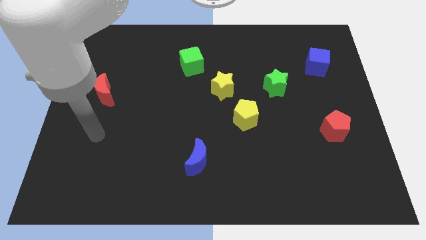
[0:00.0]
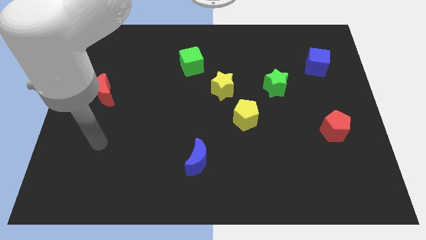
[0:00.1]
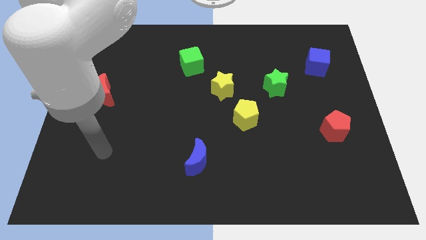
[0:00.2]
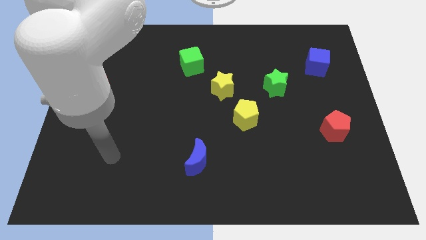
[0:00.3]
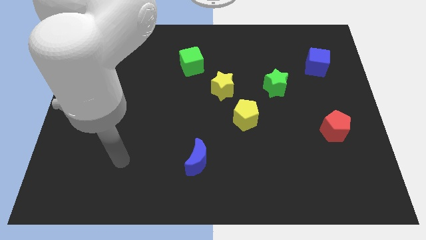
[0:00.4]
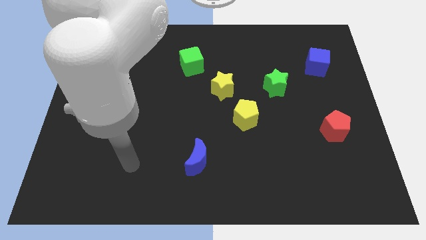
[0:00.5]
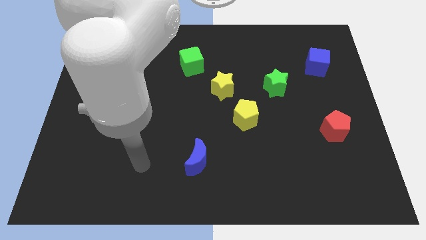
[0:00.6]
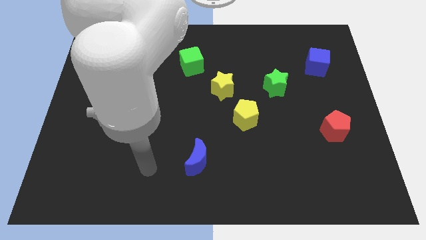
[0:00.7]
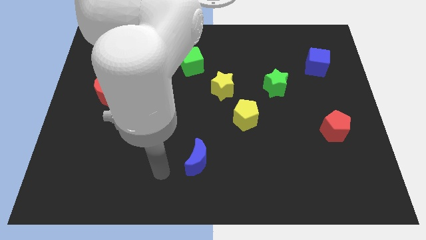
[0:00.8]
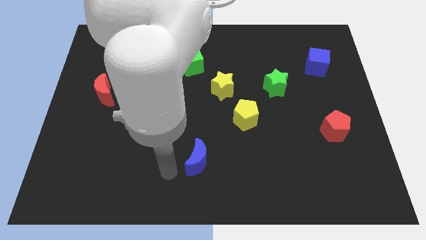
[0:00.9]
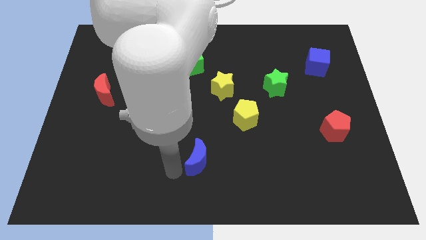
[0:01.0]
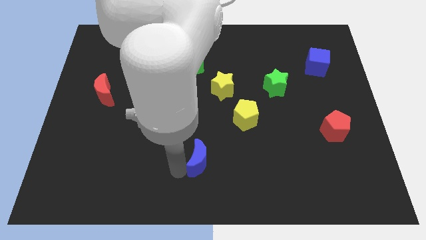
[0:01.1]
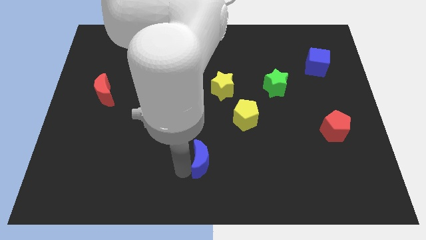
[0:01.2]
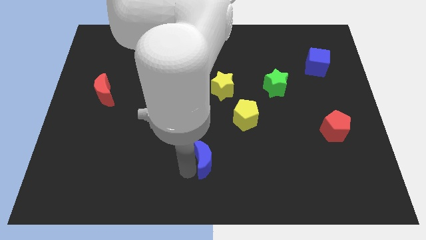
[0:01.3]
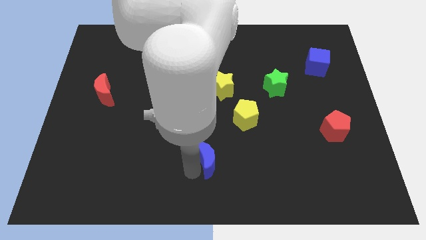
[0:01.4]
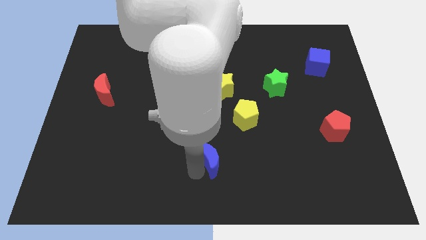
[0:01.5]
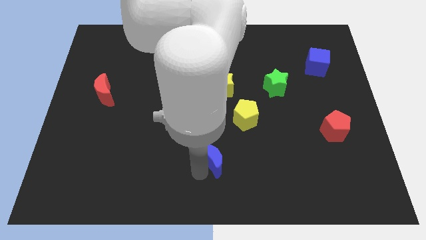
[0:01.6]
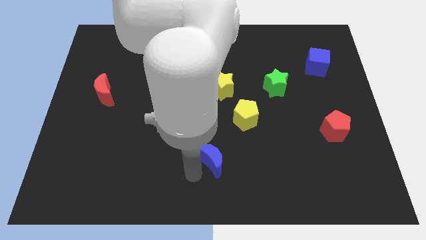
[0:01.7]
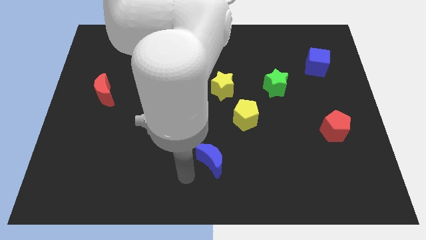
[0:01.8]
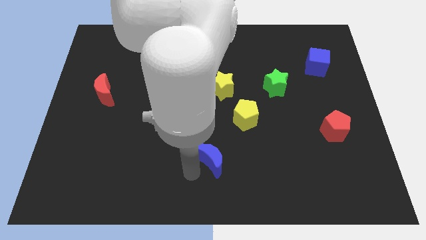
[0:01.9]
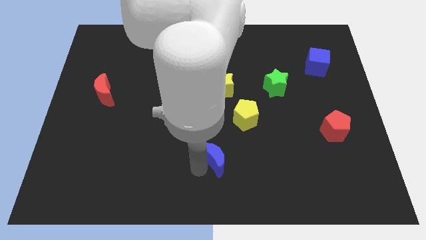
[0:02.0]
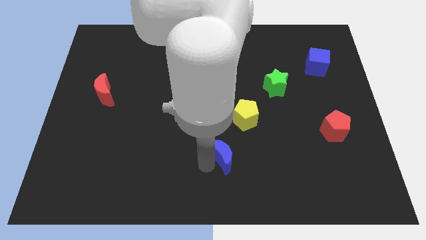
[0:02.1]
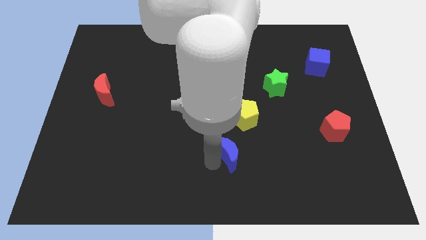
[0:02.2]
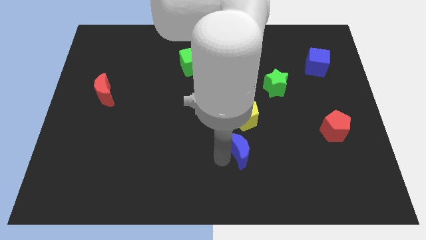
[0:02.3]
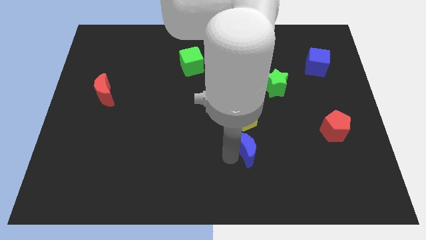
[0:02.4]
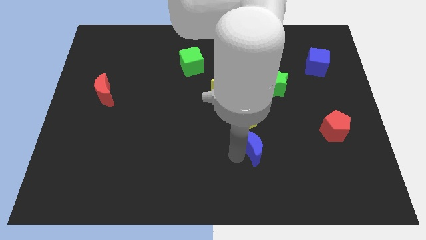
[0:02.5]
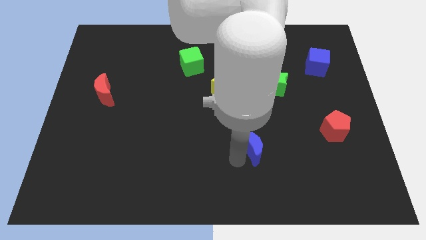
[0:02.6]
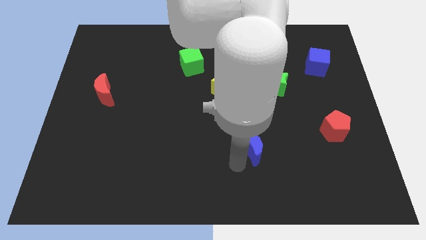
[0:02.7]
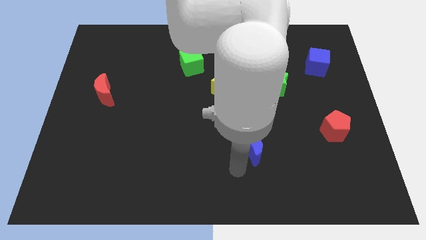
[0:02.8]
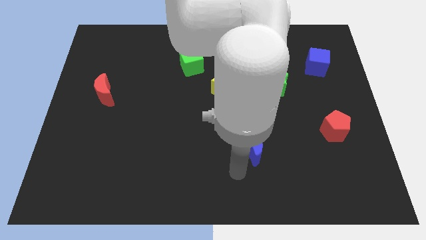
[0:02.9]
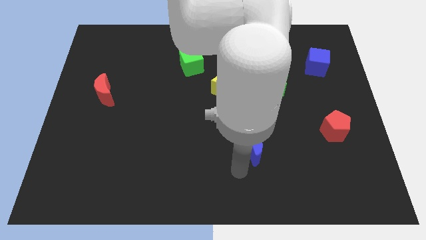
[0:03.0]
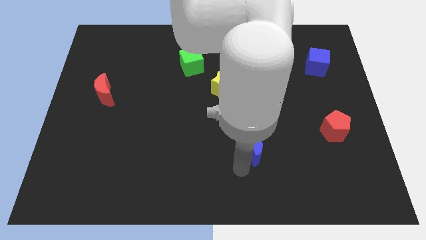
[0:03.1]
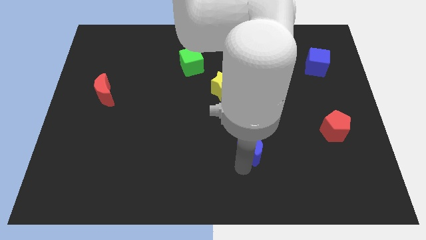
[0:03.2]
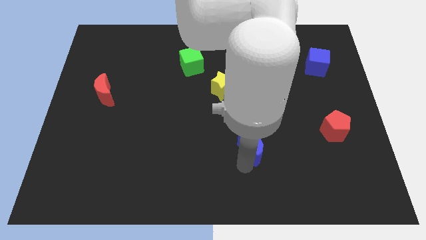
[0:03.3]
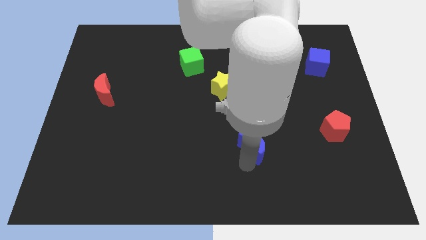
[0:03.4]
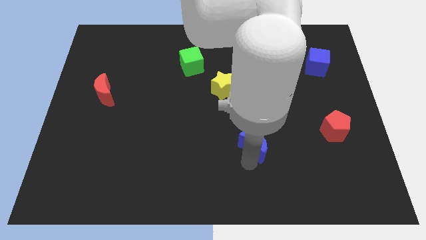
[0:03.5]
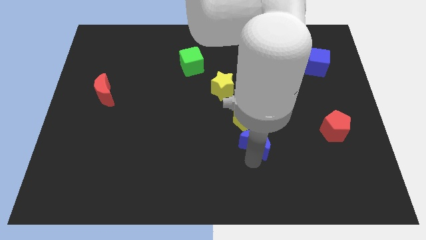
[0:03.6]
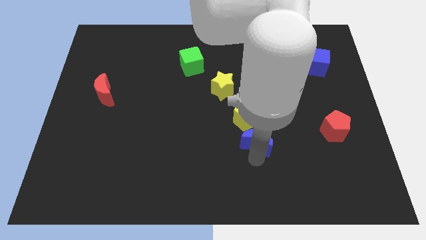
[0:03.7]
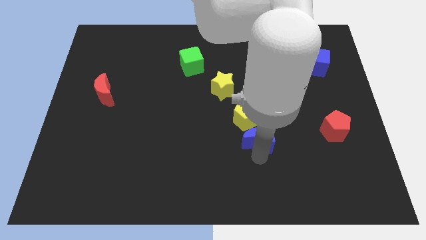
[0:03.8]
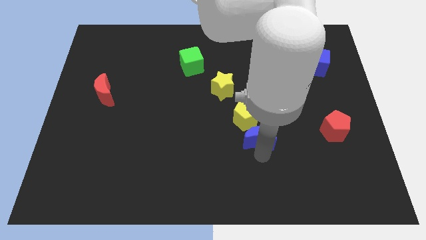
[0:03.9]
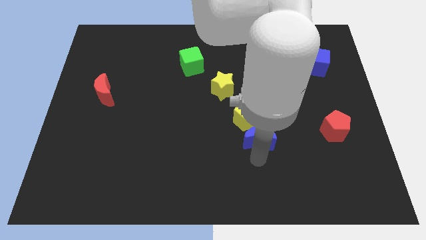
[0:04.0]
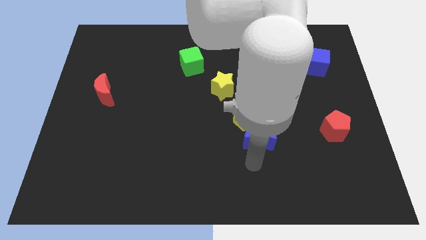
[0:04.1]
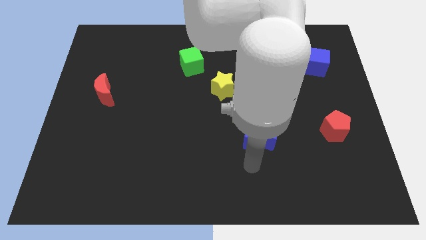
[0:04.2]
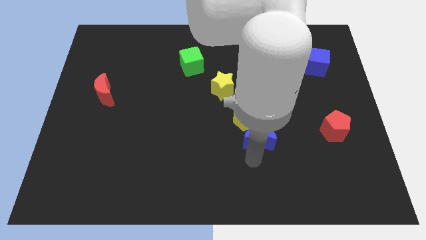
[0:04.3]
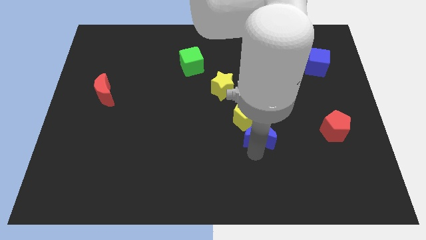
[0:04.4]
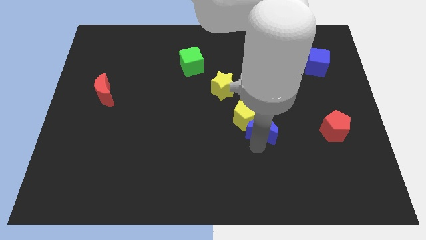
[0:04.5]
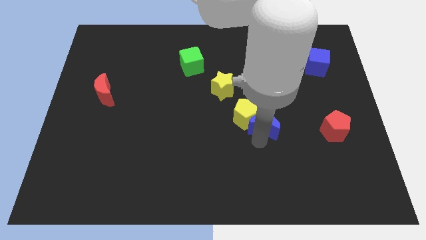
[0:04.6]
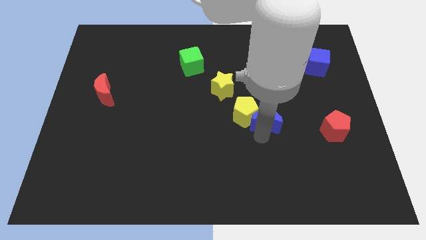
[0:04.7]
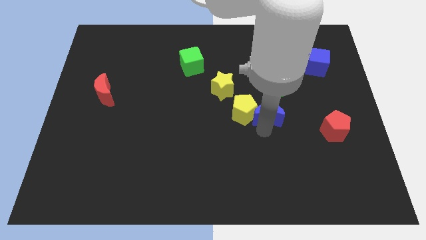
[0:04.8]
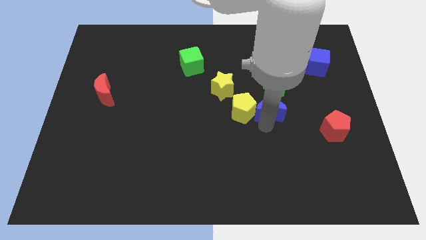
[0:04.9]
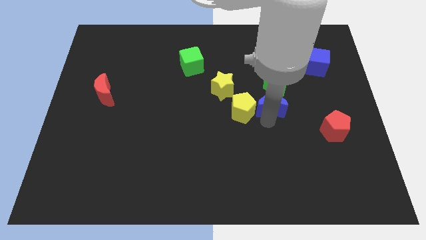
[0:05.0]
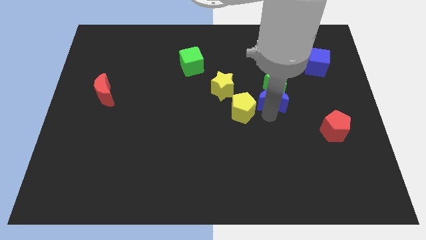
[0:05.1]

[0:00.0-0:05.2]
slide the blue moon close to the green star

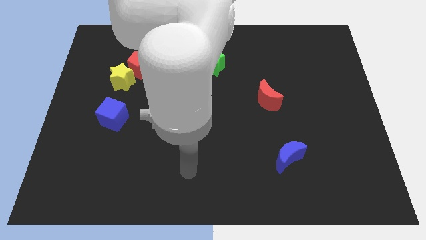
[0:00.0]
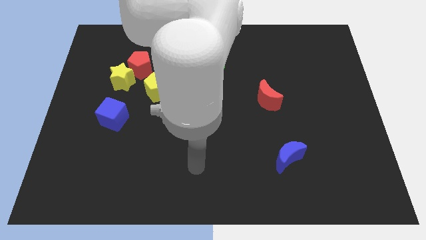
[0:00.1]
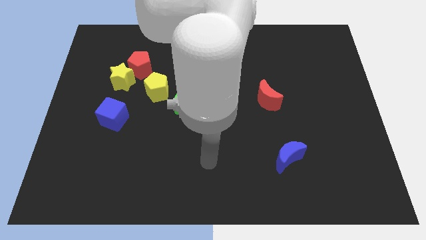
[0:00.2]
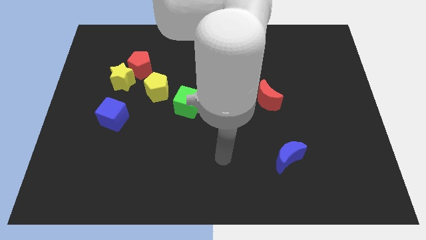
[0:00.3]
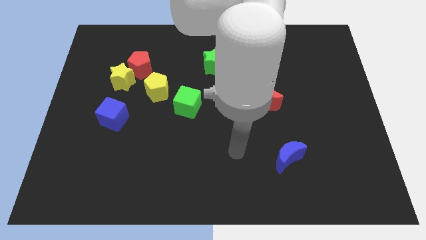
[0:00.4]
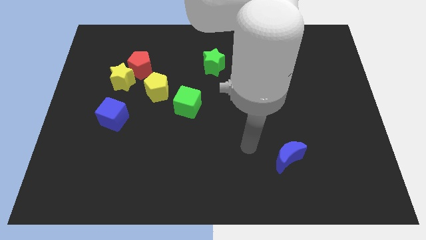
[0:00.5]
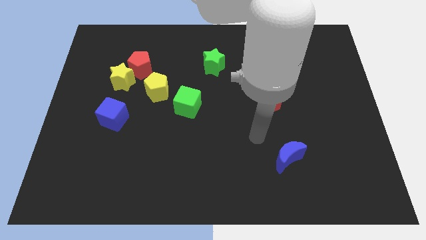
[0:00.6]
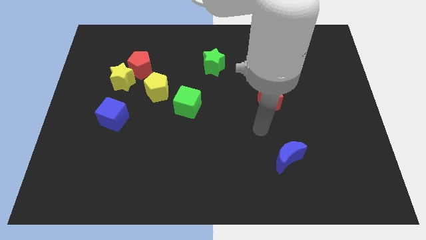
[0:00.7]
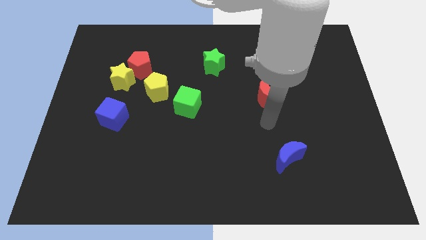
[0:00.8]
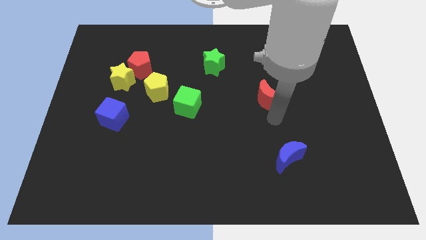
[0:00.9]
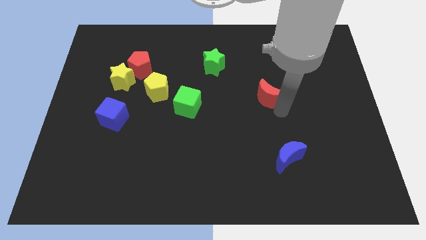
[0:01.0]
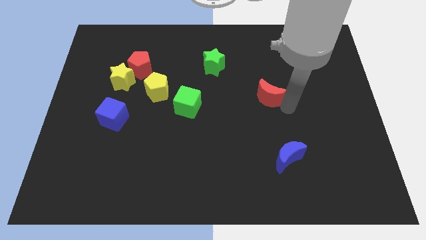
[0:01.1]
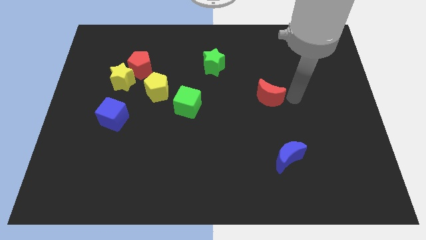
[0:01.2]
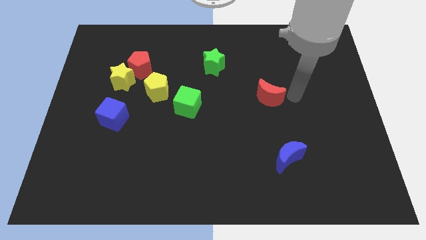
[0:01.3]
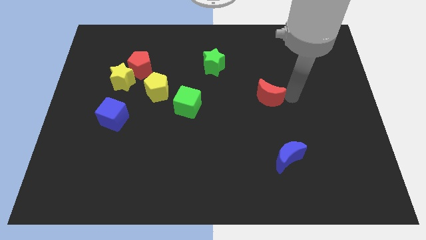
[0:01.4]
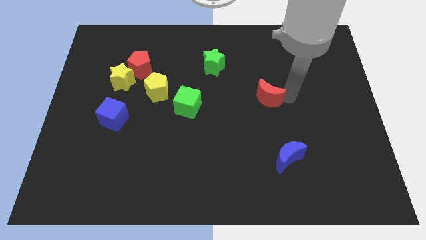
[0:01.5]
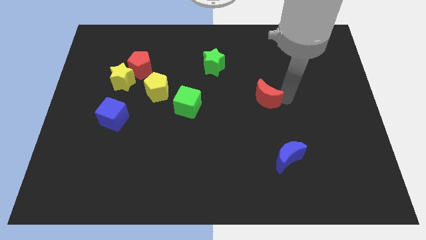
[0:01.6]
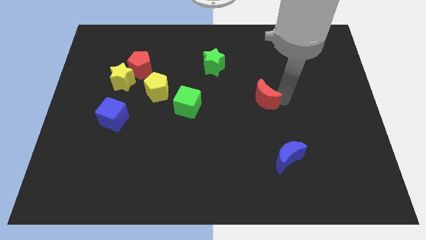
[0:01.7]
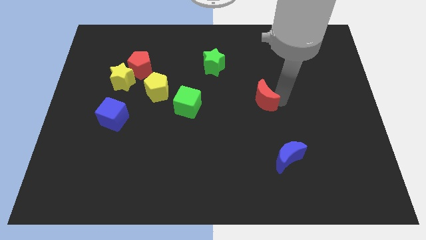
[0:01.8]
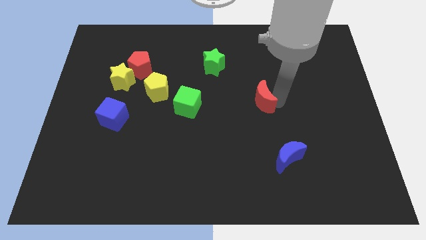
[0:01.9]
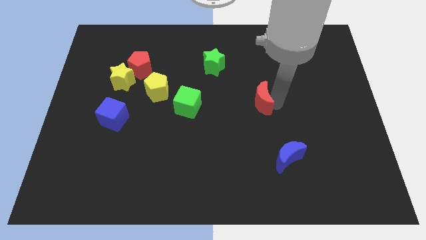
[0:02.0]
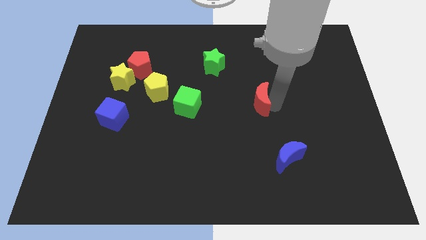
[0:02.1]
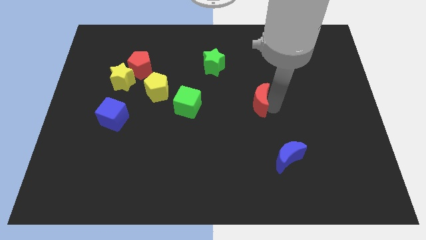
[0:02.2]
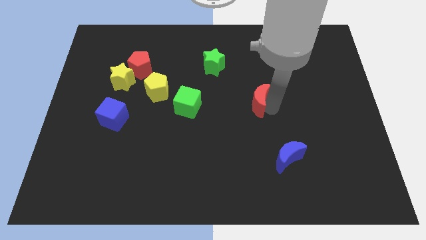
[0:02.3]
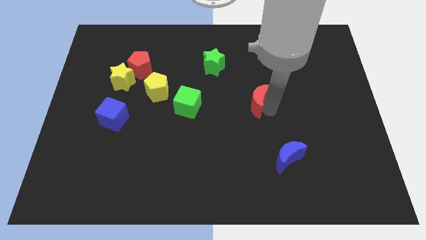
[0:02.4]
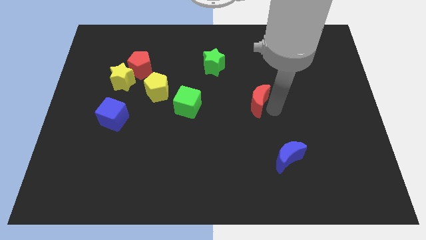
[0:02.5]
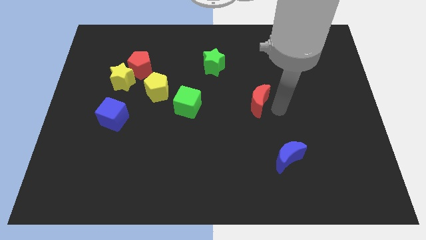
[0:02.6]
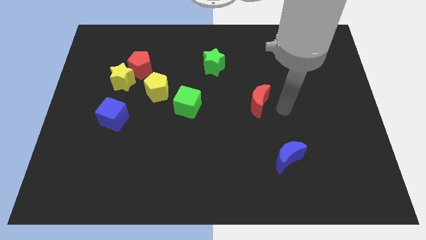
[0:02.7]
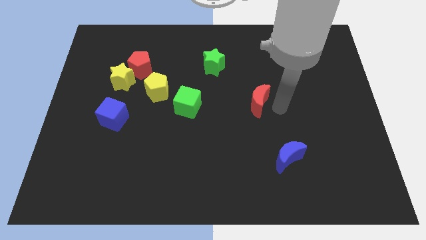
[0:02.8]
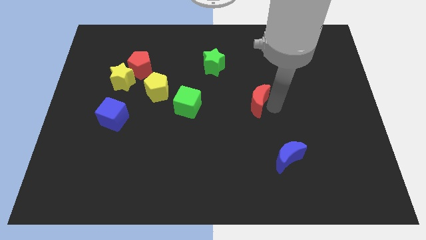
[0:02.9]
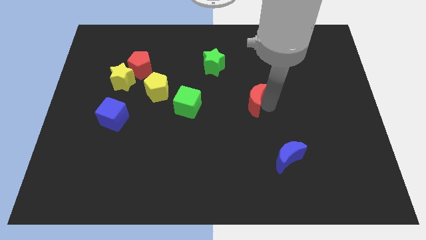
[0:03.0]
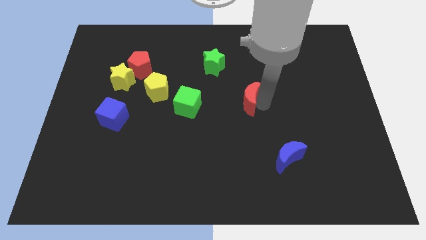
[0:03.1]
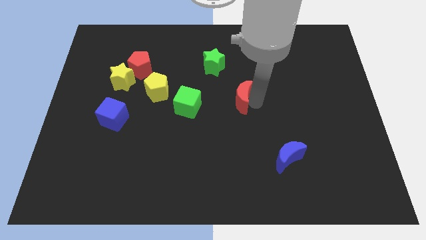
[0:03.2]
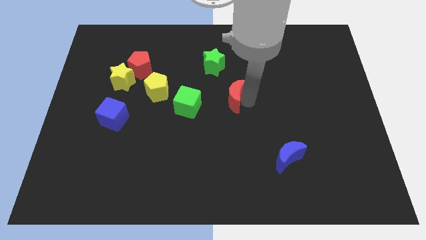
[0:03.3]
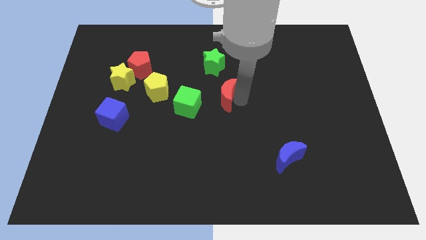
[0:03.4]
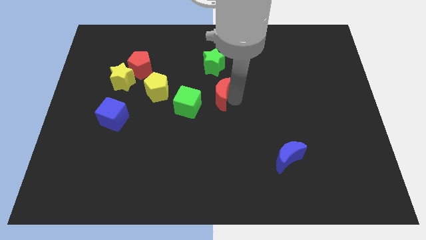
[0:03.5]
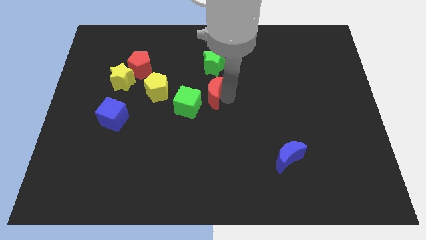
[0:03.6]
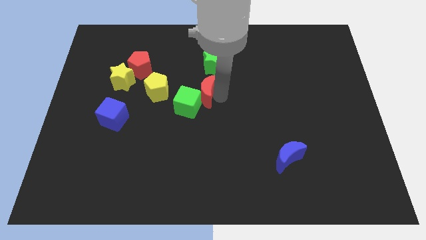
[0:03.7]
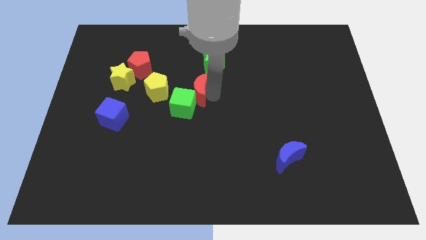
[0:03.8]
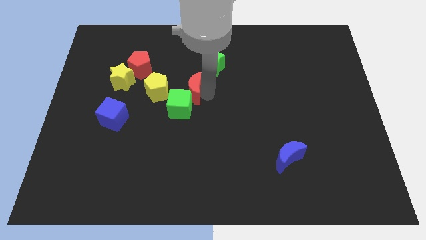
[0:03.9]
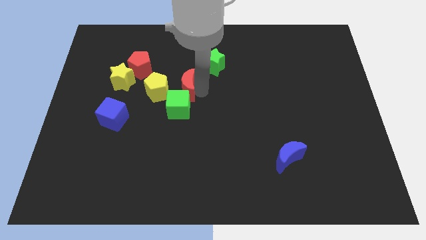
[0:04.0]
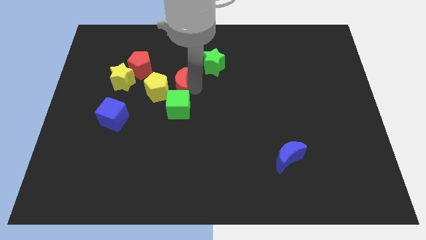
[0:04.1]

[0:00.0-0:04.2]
push the red moon towards the yellow pentagon
